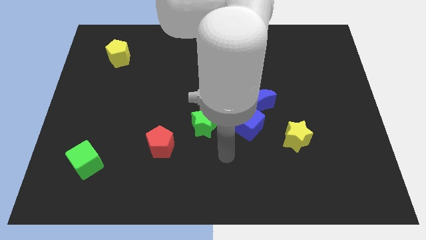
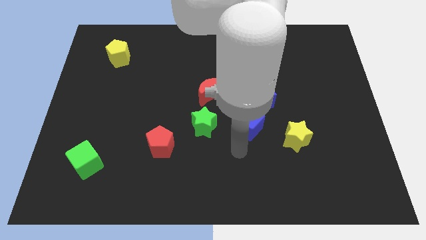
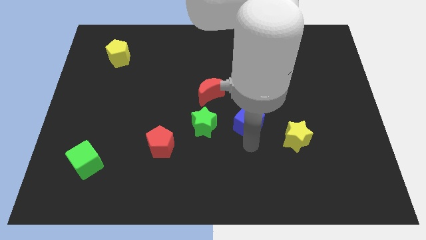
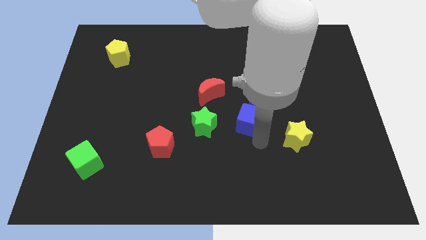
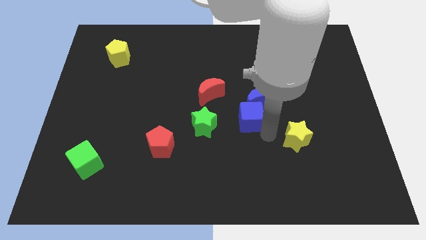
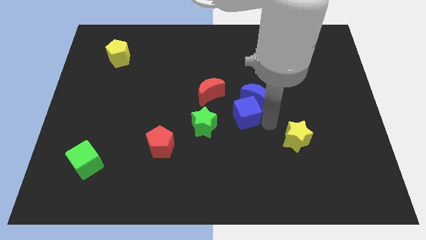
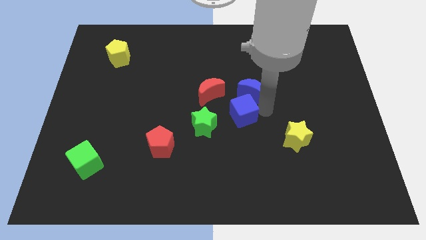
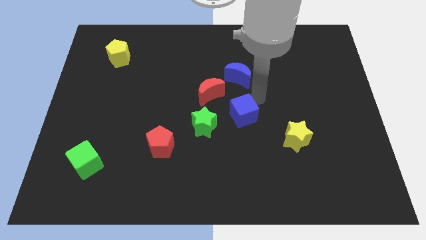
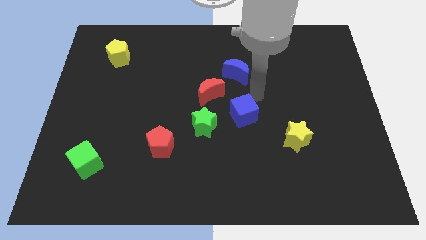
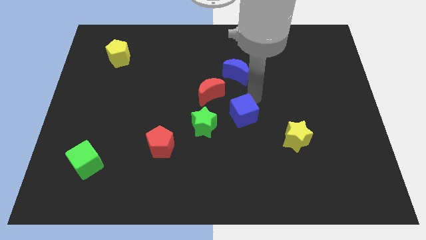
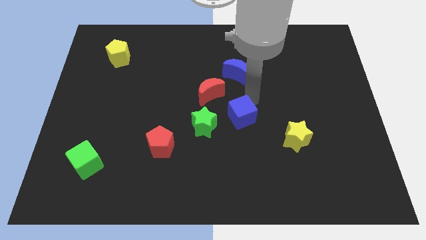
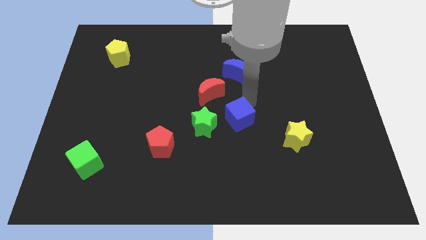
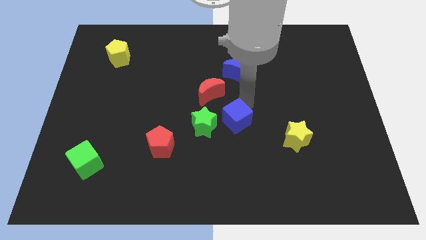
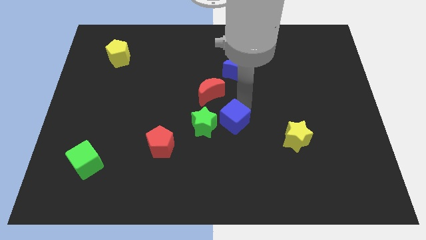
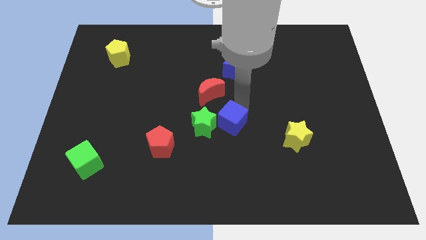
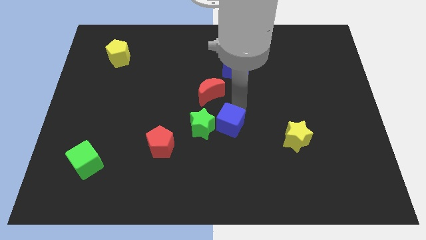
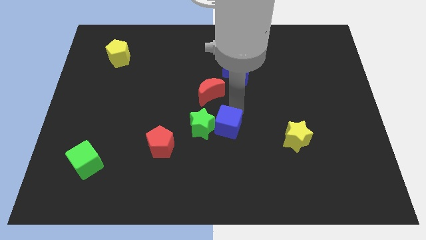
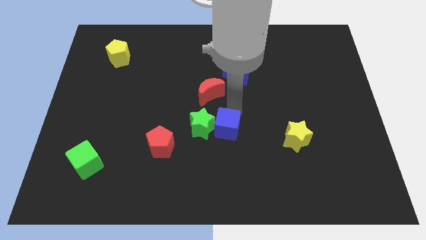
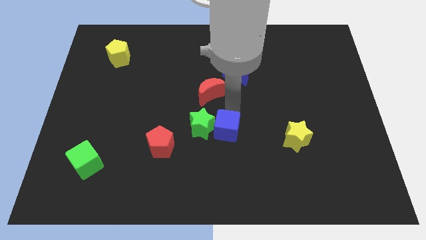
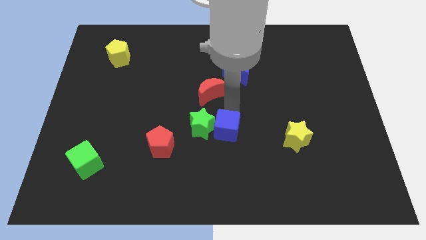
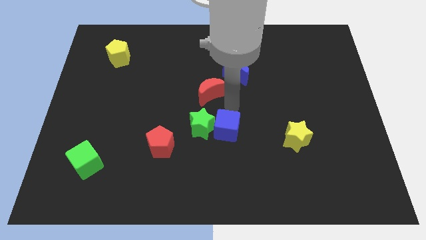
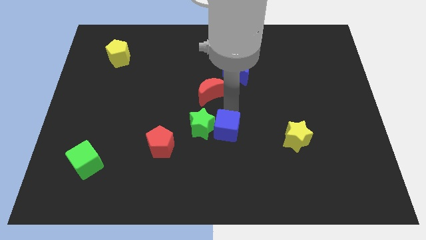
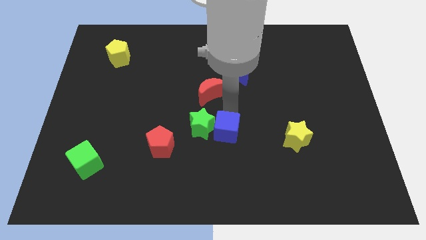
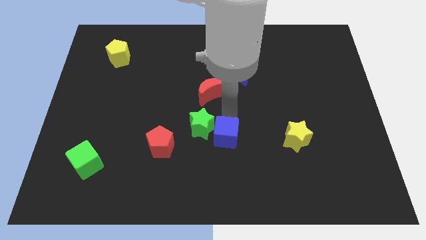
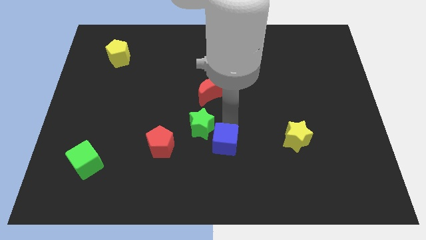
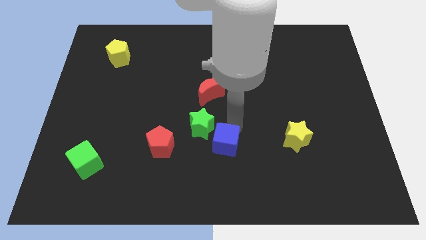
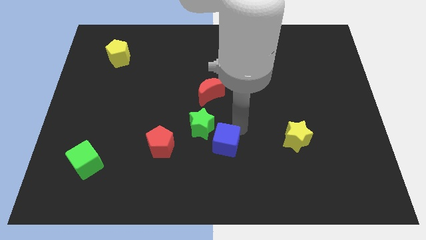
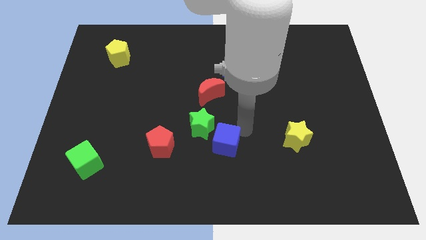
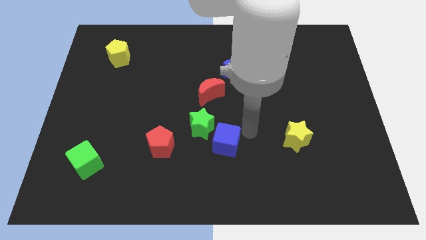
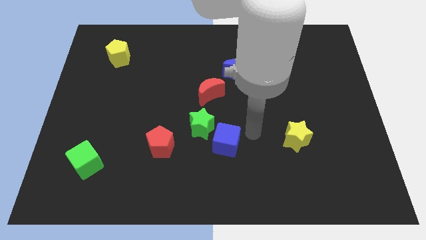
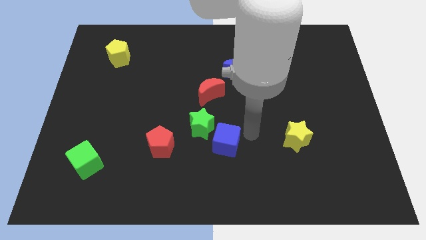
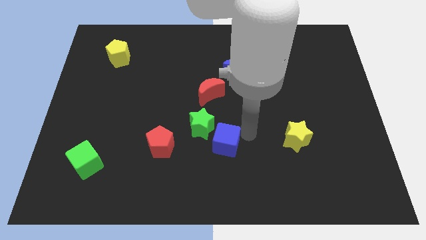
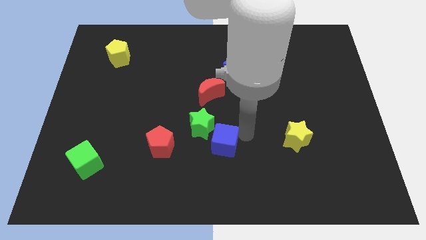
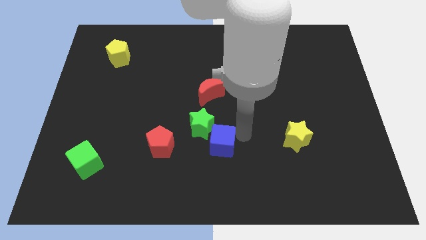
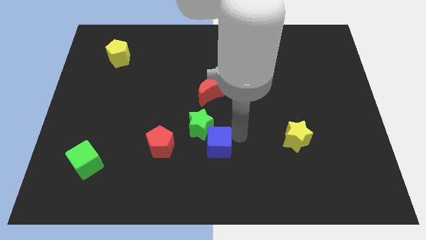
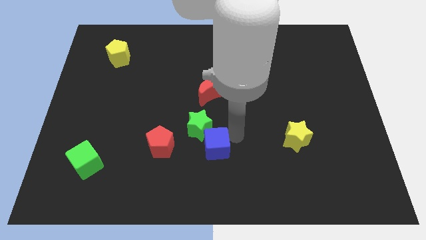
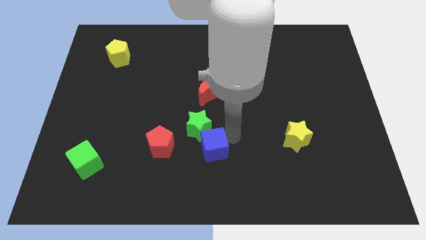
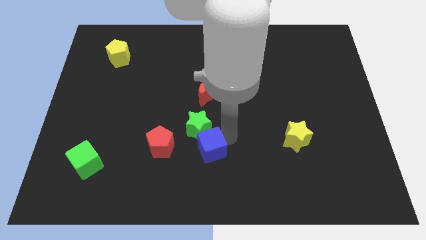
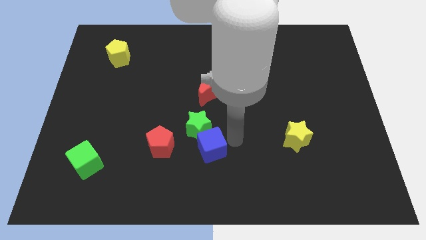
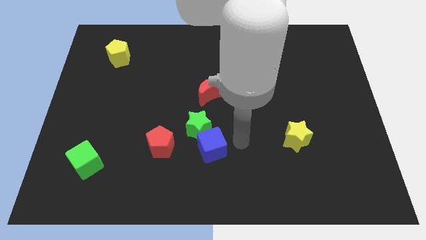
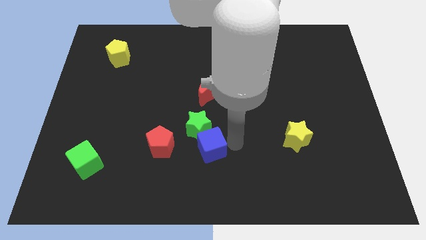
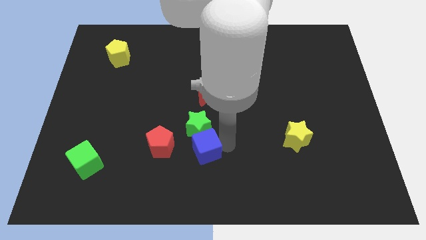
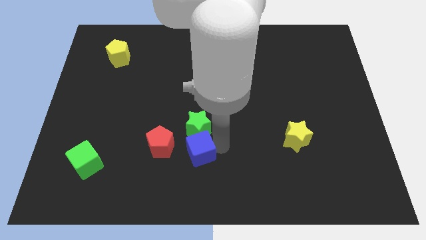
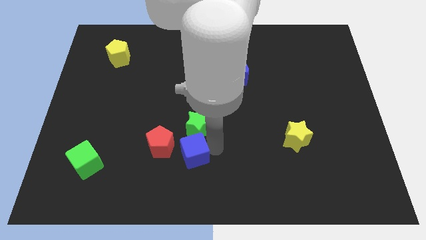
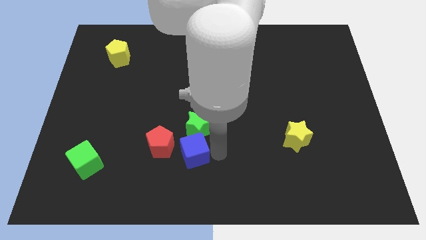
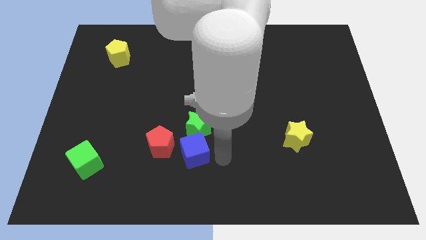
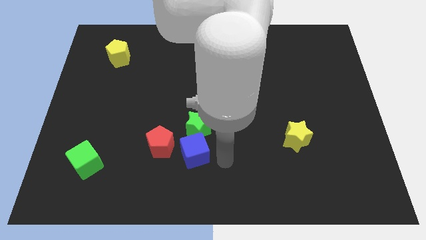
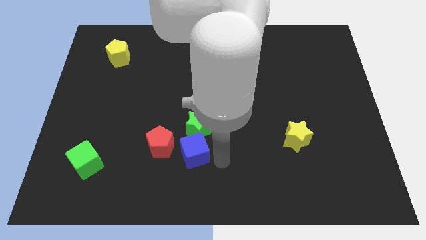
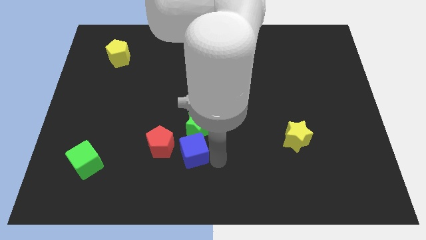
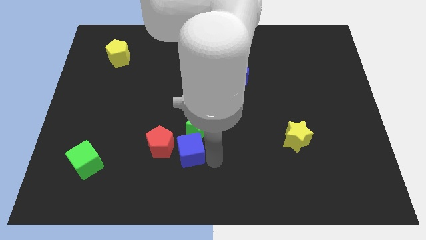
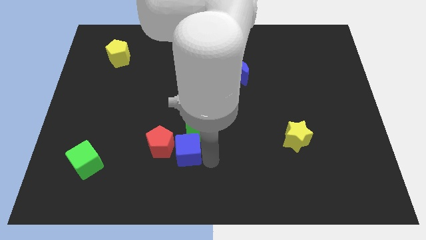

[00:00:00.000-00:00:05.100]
put the blue cube to the red pentagon

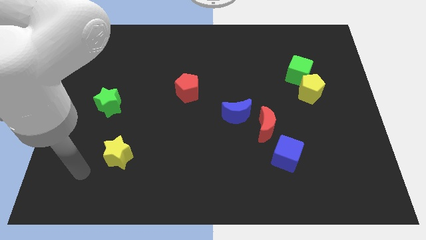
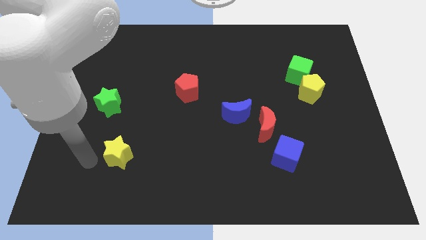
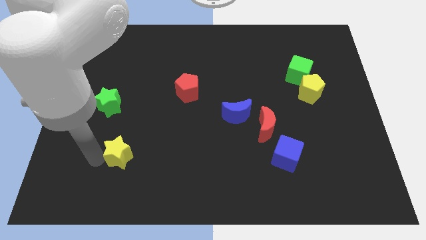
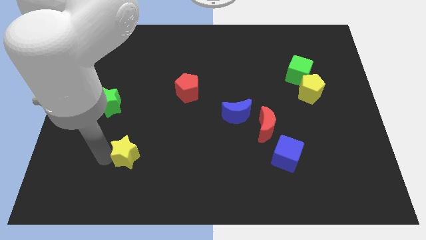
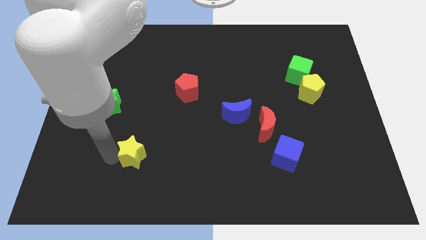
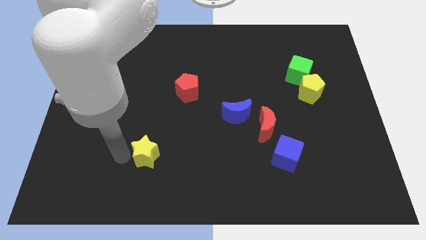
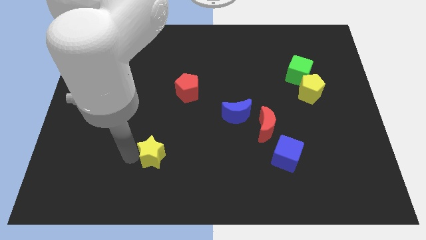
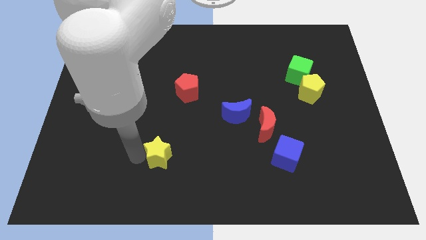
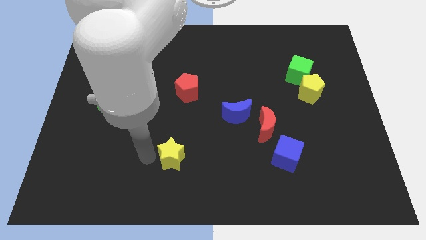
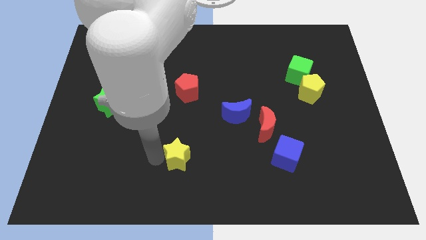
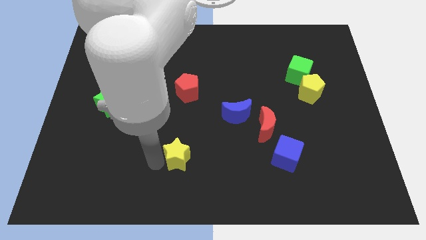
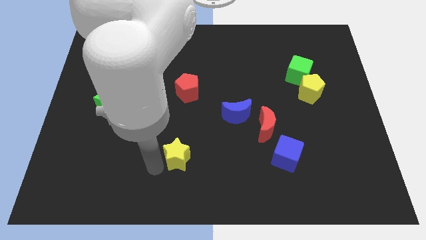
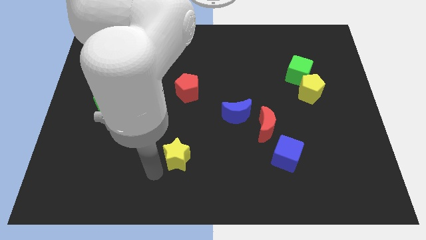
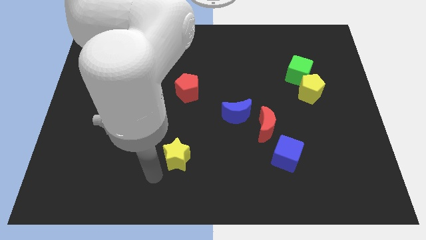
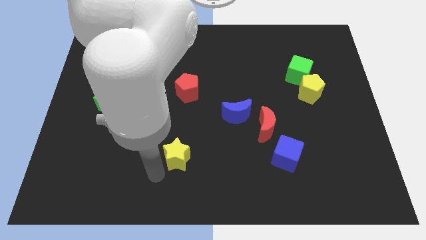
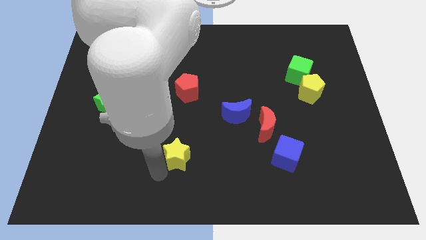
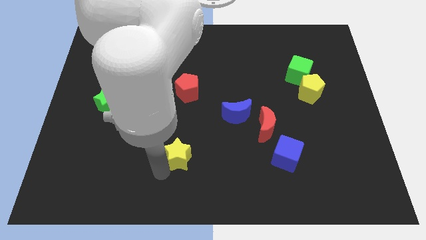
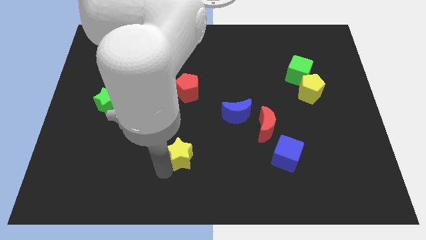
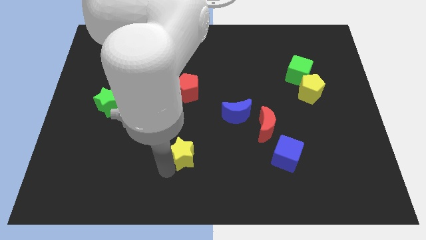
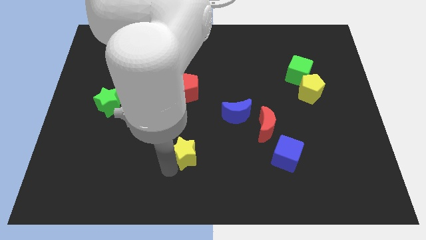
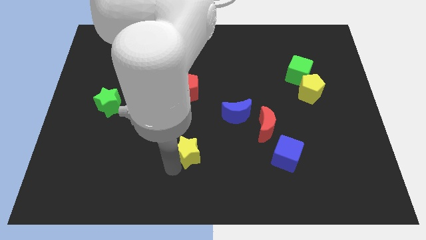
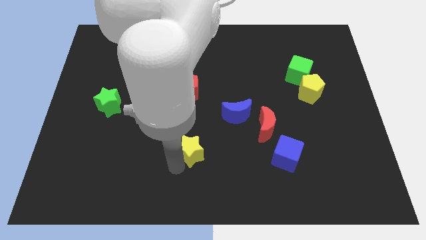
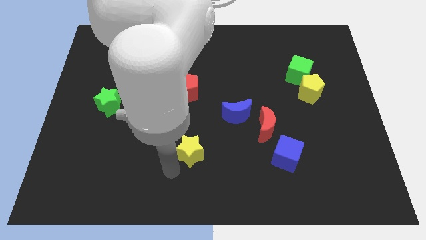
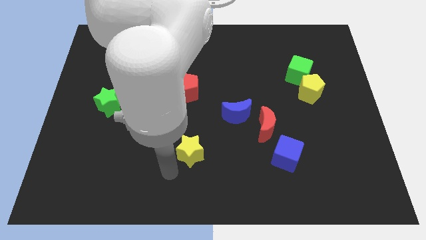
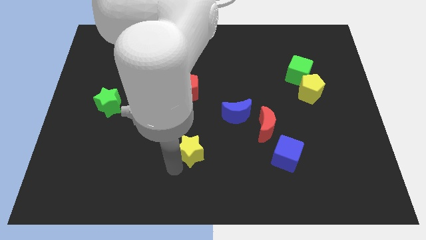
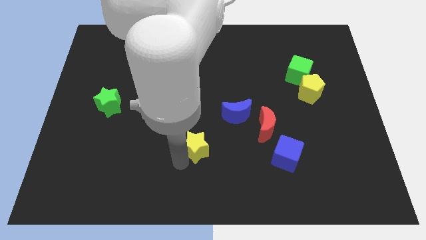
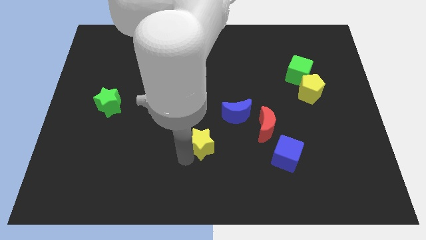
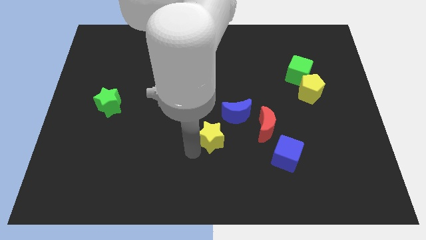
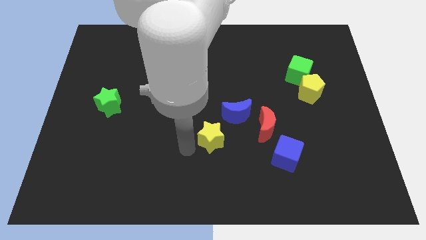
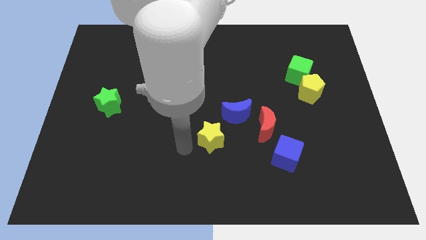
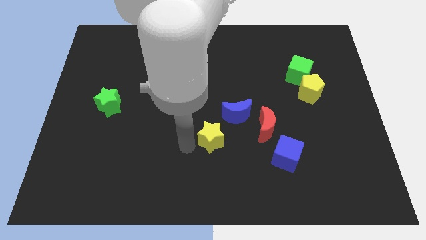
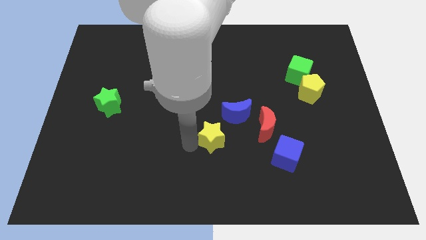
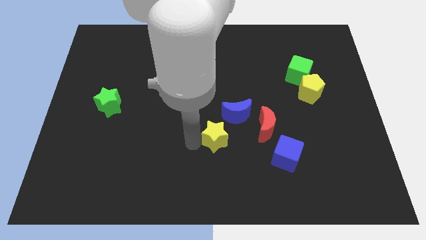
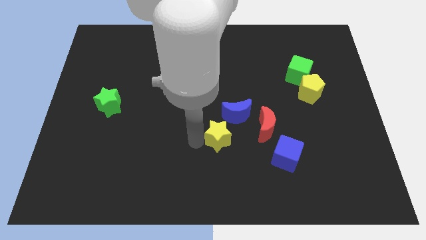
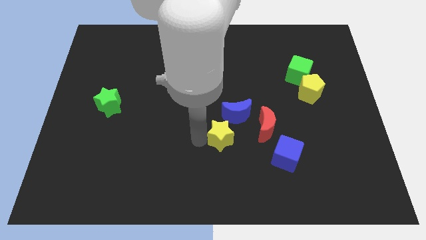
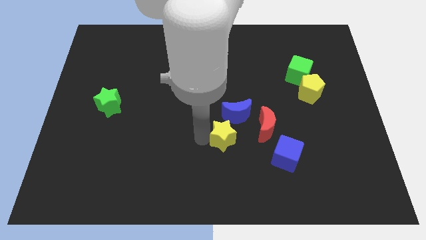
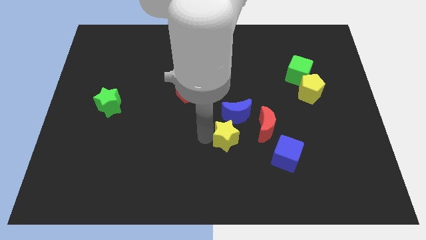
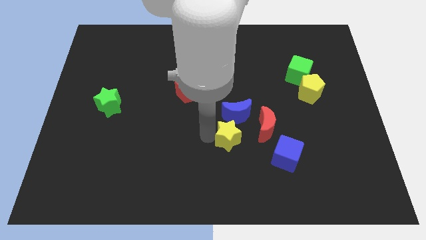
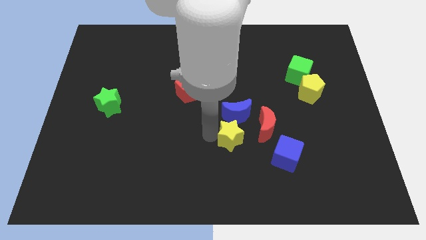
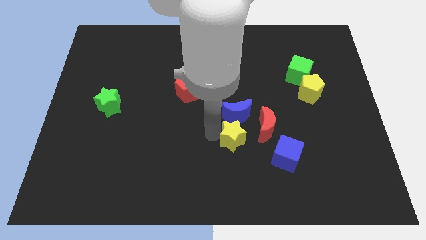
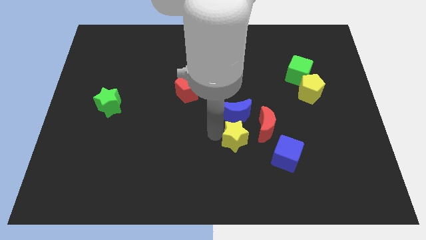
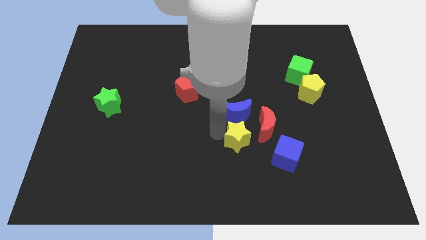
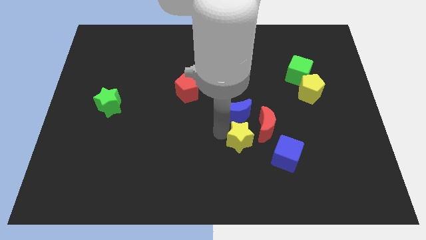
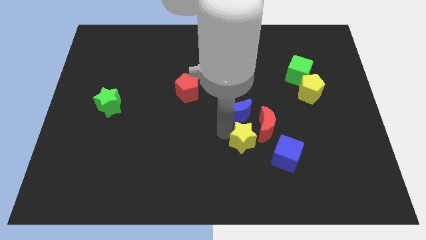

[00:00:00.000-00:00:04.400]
put the yellow star to the red moon
